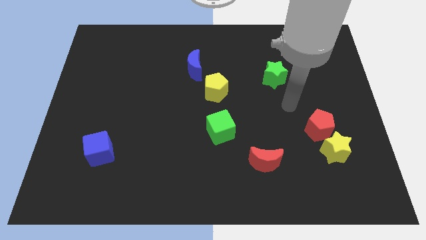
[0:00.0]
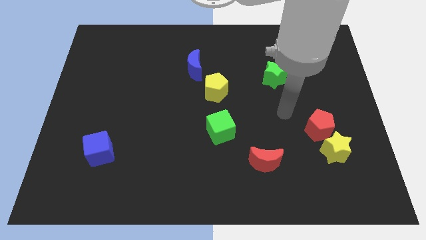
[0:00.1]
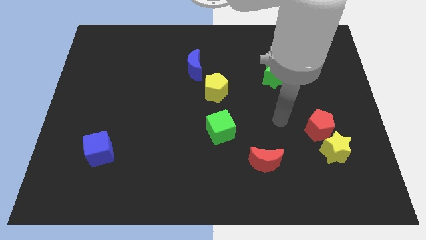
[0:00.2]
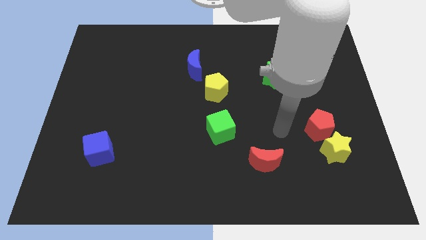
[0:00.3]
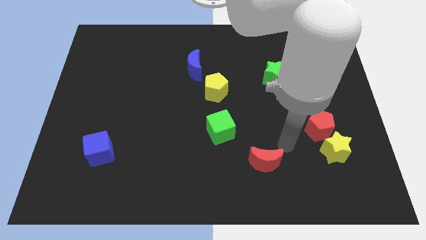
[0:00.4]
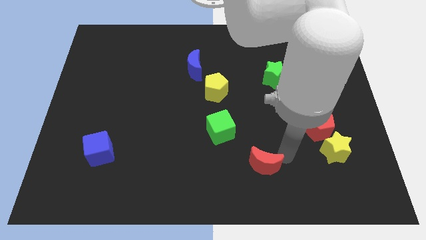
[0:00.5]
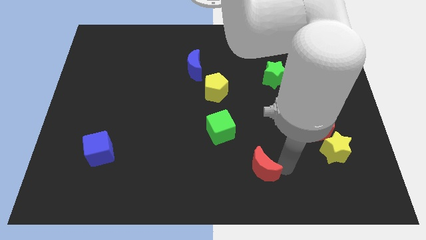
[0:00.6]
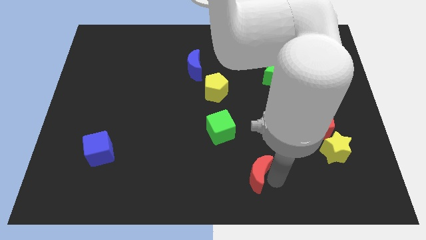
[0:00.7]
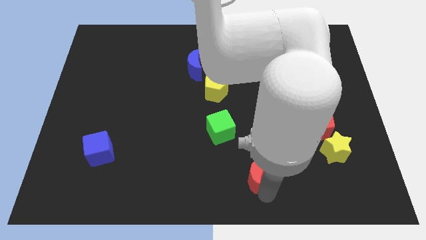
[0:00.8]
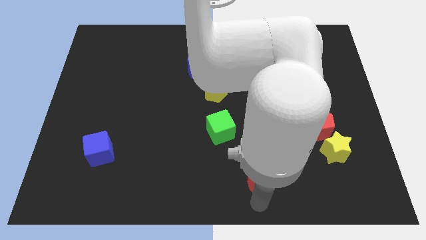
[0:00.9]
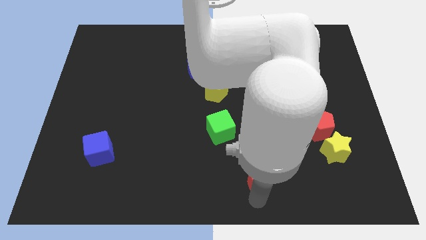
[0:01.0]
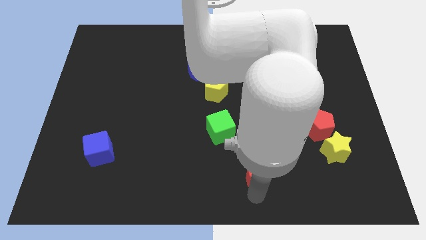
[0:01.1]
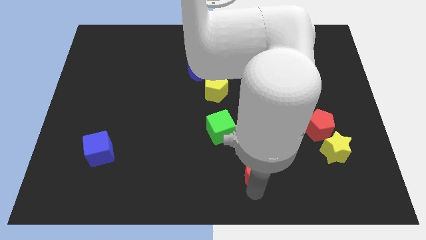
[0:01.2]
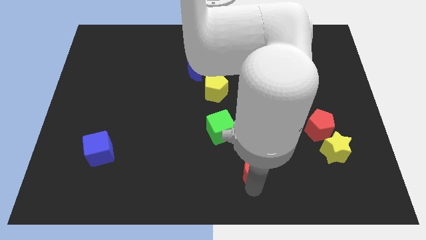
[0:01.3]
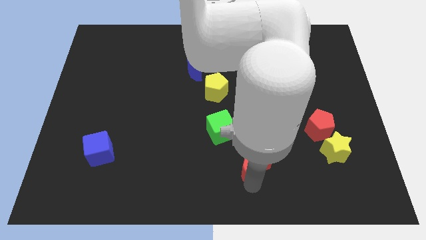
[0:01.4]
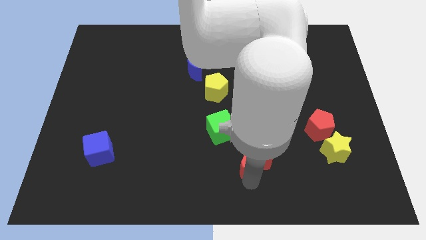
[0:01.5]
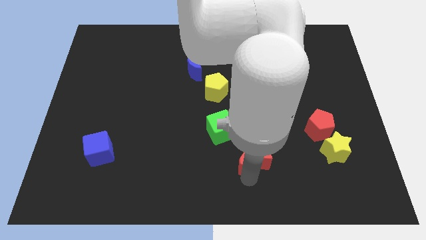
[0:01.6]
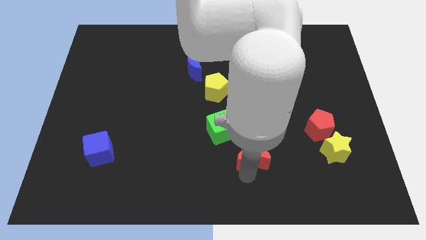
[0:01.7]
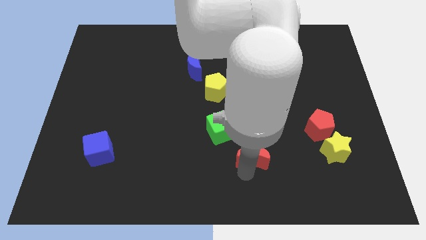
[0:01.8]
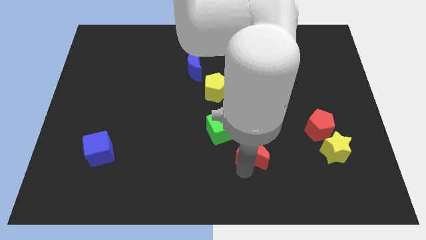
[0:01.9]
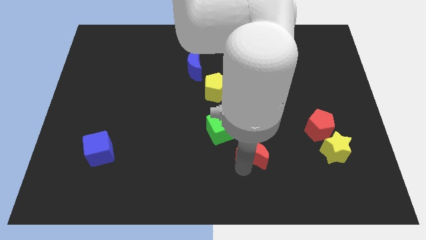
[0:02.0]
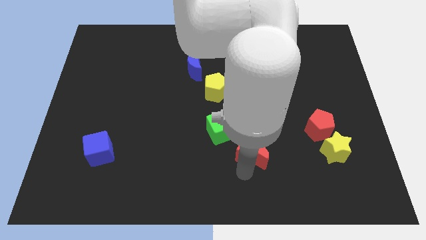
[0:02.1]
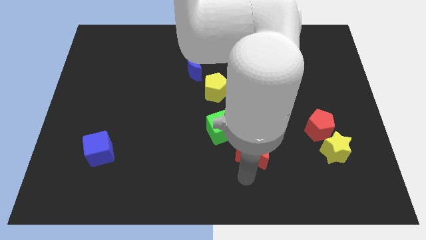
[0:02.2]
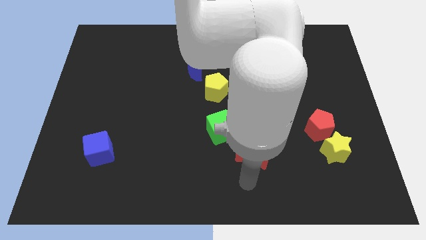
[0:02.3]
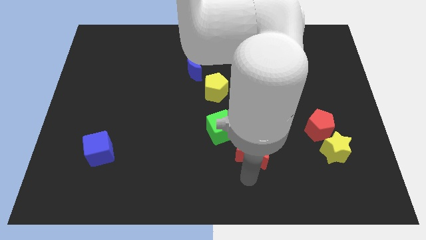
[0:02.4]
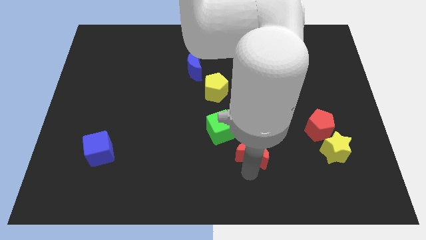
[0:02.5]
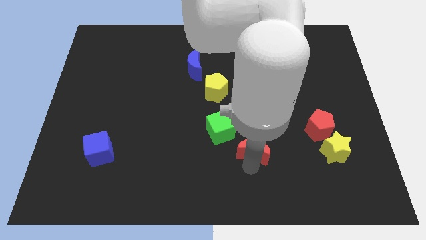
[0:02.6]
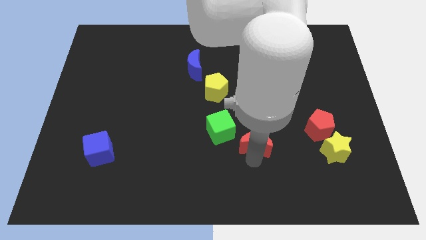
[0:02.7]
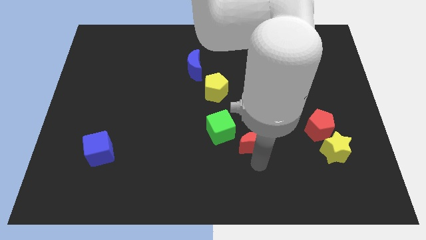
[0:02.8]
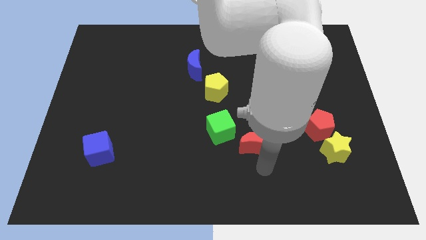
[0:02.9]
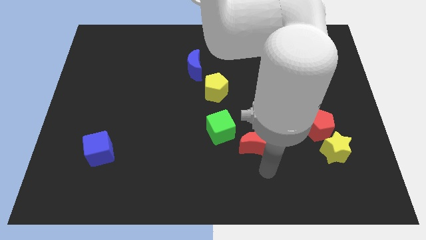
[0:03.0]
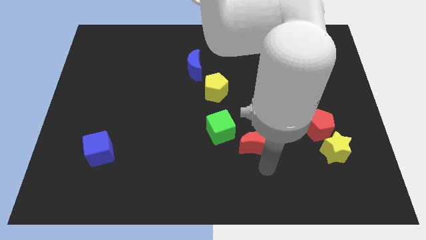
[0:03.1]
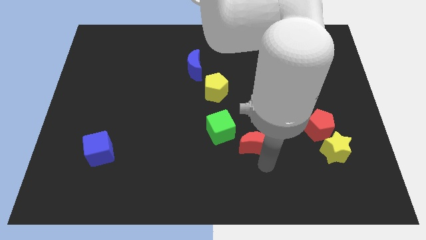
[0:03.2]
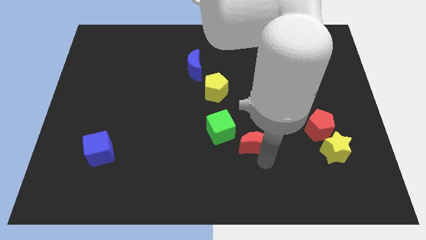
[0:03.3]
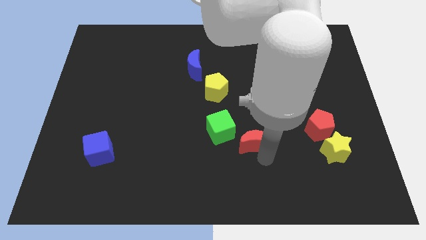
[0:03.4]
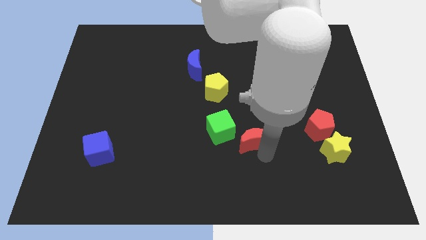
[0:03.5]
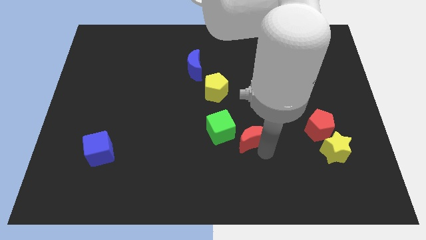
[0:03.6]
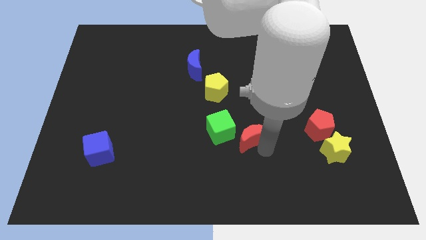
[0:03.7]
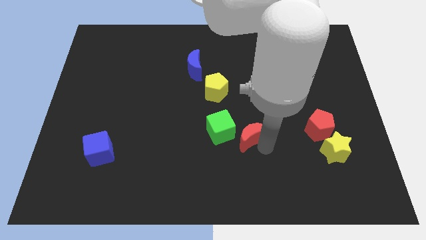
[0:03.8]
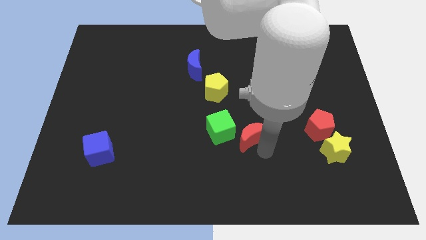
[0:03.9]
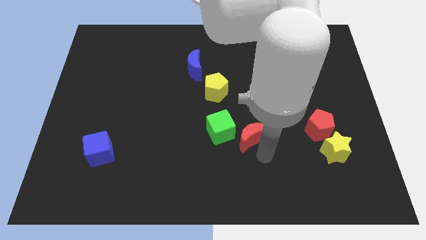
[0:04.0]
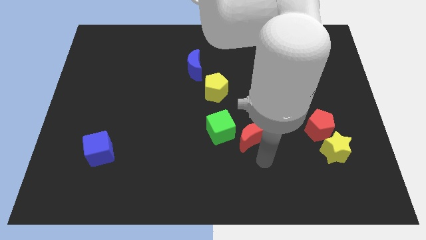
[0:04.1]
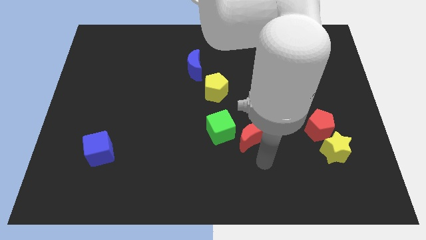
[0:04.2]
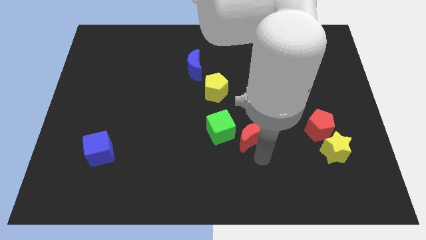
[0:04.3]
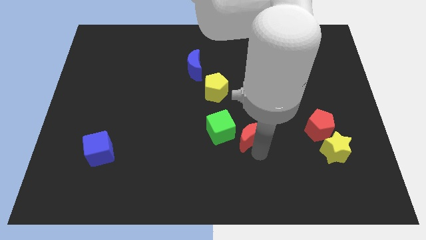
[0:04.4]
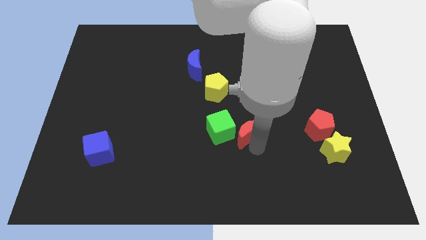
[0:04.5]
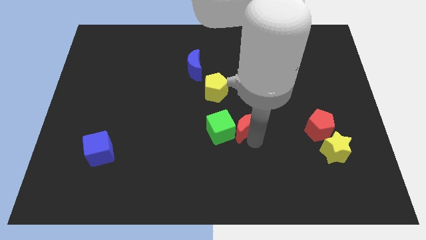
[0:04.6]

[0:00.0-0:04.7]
slightly move the red moon upwards and then to the left

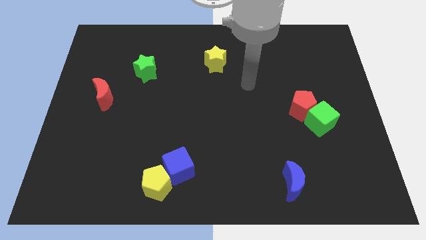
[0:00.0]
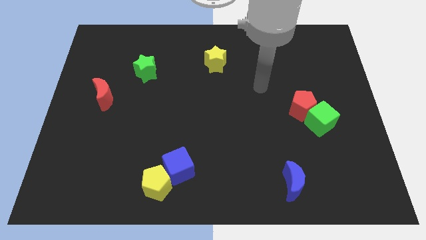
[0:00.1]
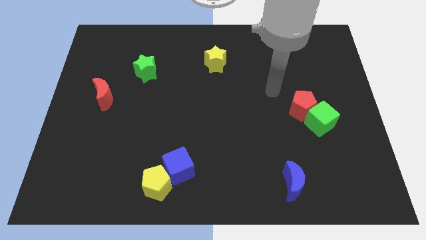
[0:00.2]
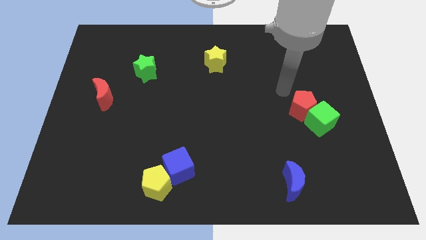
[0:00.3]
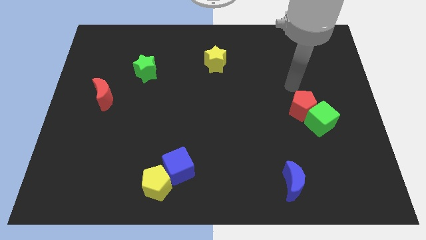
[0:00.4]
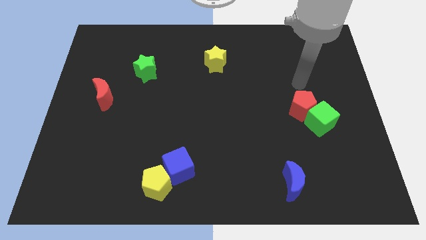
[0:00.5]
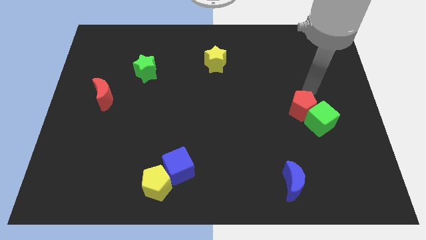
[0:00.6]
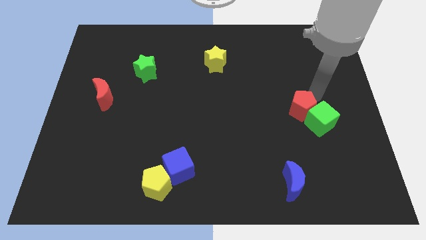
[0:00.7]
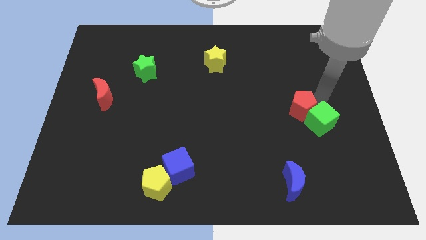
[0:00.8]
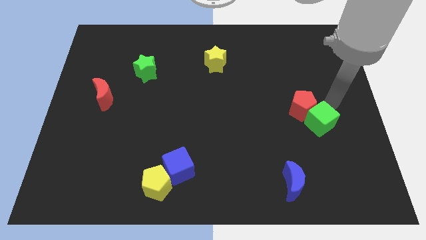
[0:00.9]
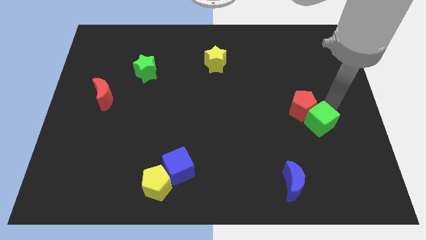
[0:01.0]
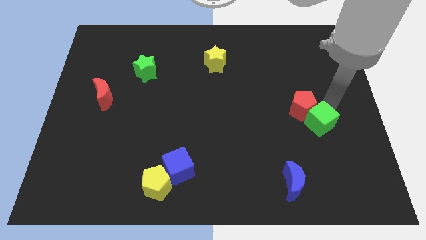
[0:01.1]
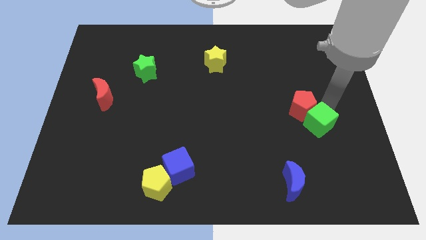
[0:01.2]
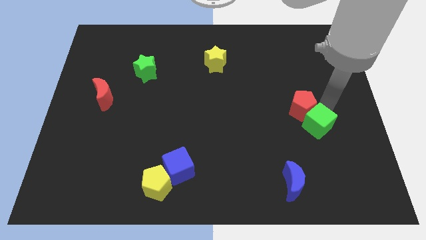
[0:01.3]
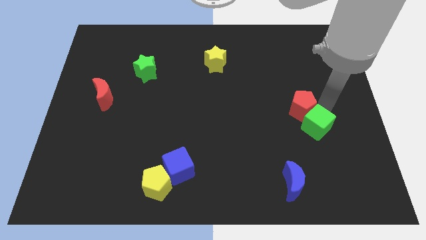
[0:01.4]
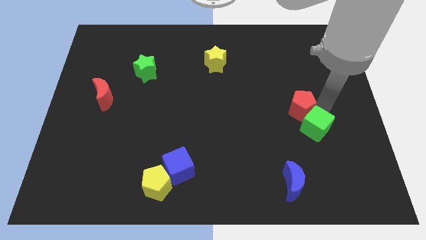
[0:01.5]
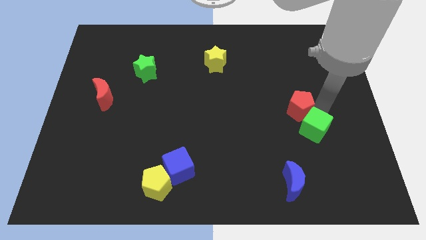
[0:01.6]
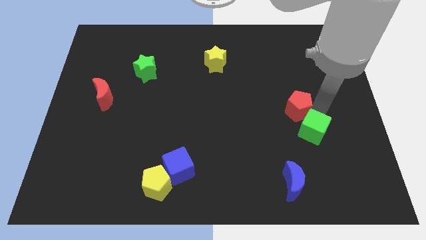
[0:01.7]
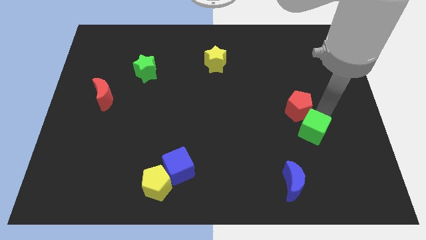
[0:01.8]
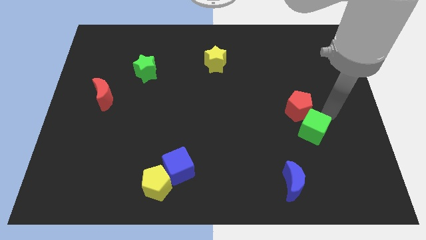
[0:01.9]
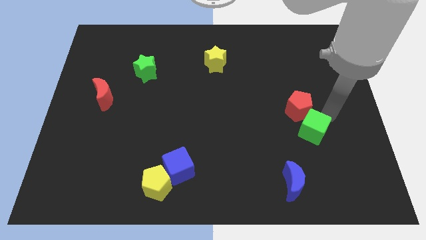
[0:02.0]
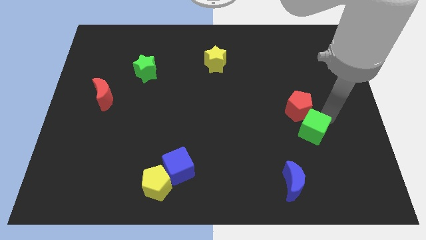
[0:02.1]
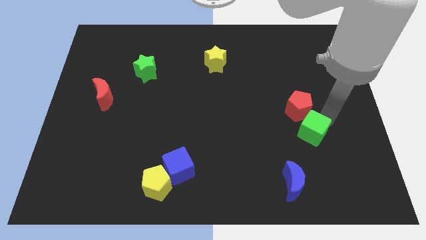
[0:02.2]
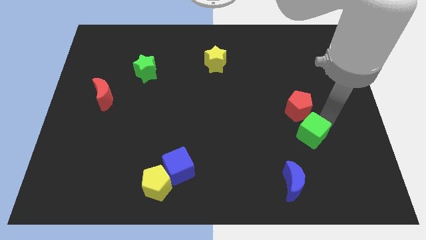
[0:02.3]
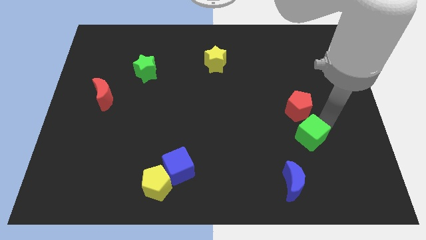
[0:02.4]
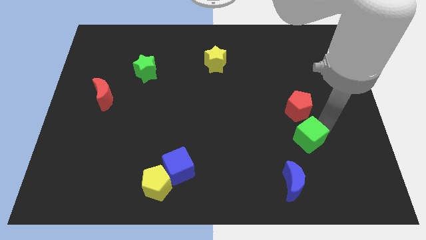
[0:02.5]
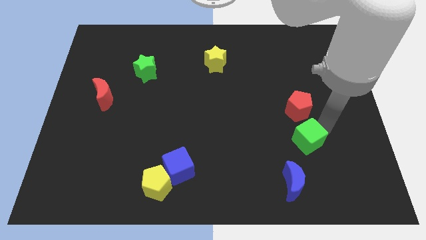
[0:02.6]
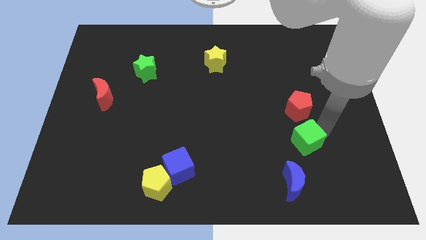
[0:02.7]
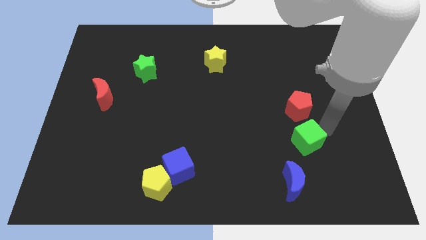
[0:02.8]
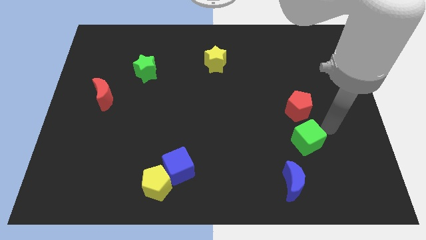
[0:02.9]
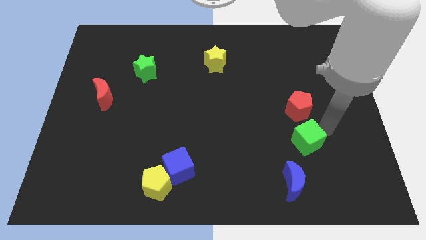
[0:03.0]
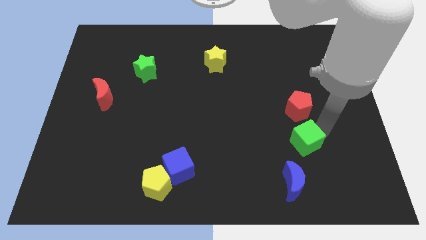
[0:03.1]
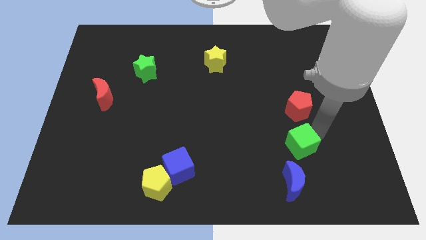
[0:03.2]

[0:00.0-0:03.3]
slightly slide the green cube down and to the left diagonally
